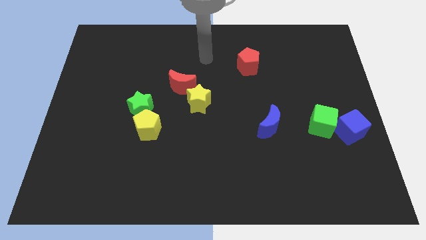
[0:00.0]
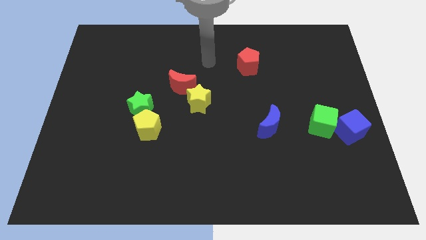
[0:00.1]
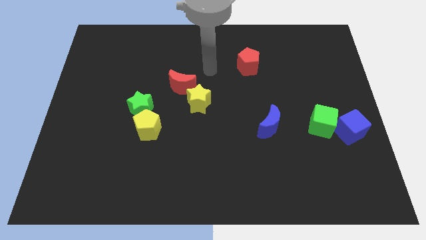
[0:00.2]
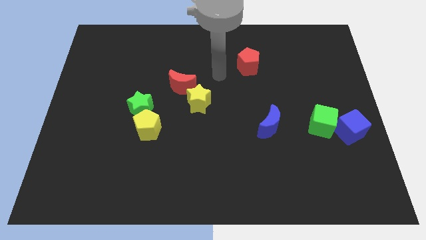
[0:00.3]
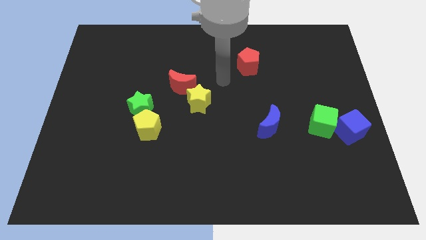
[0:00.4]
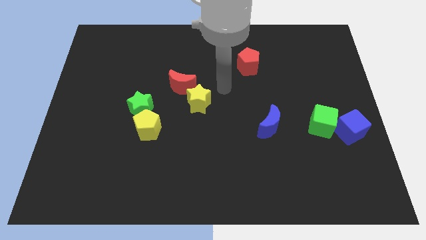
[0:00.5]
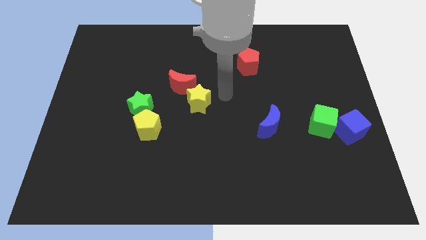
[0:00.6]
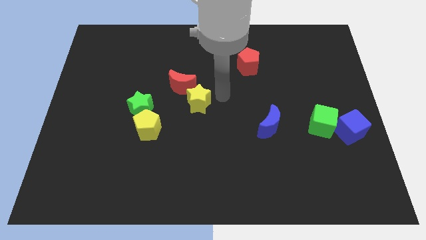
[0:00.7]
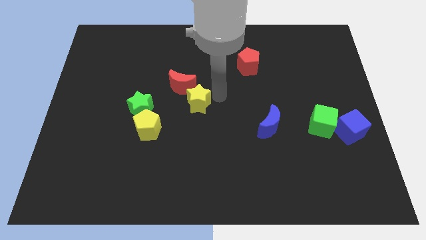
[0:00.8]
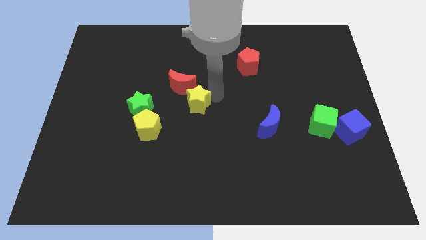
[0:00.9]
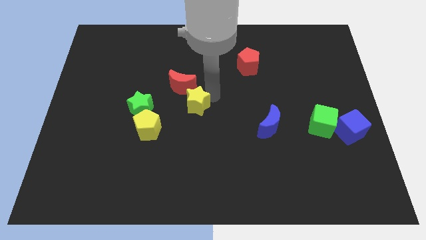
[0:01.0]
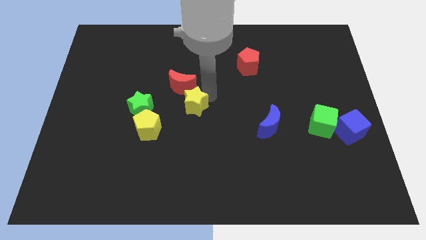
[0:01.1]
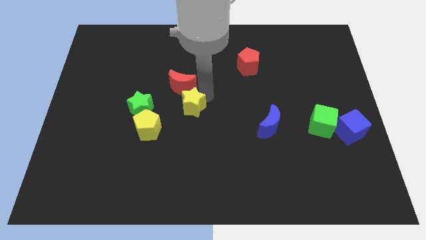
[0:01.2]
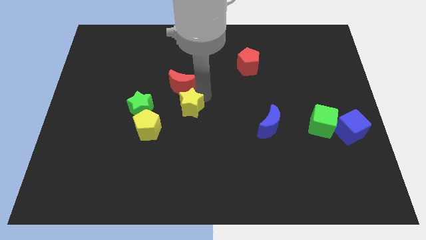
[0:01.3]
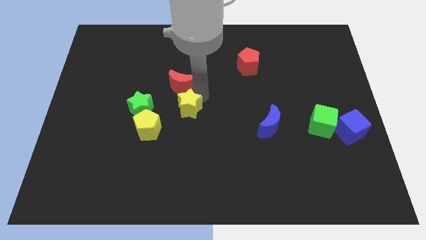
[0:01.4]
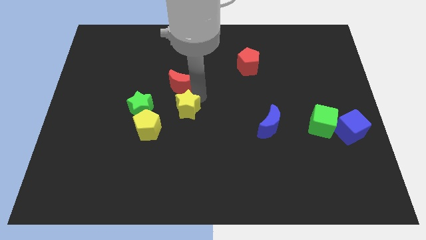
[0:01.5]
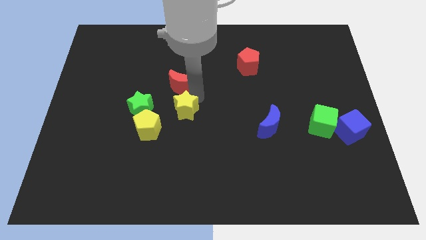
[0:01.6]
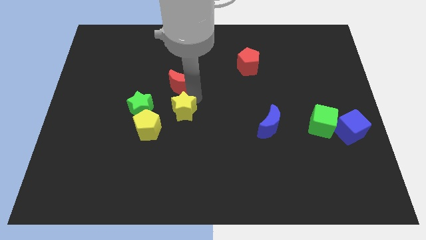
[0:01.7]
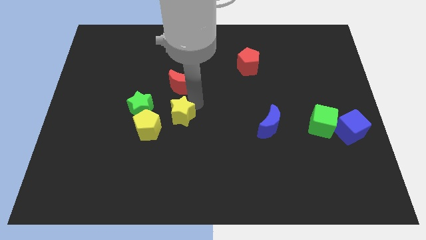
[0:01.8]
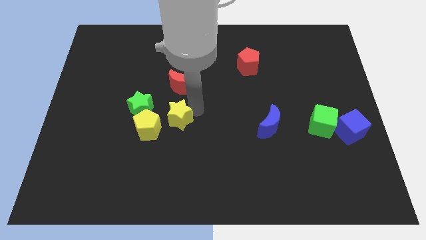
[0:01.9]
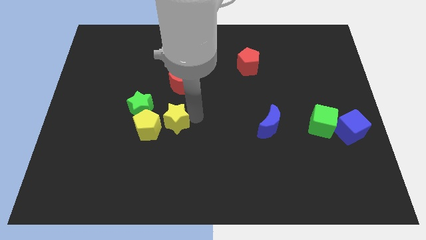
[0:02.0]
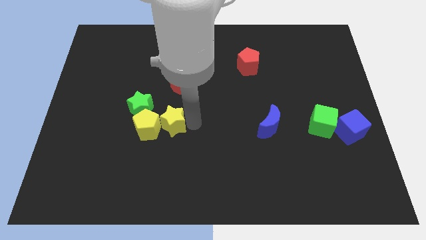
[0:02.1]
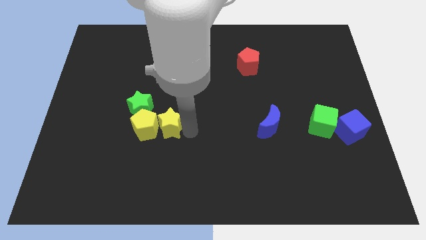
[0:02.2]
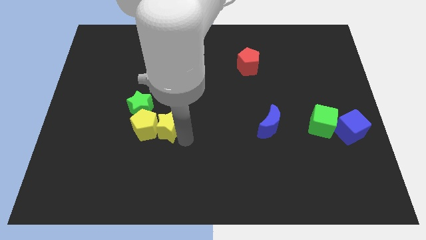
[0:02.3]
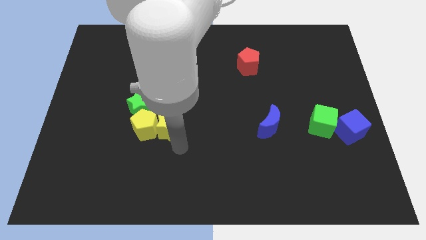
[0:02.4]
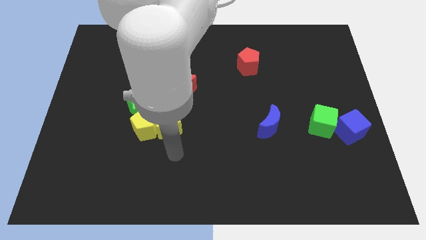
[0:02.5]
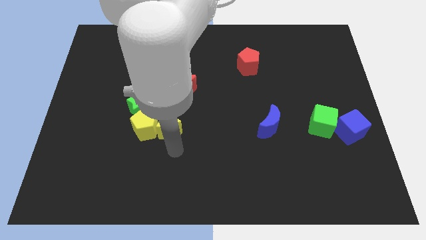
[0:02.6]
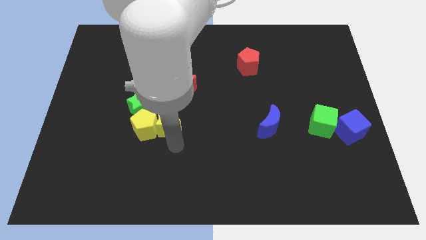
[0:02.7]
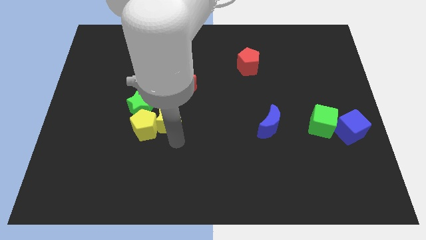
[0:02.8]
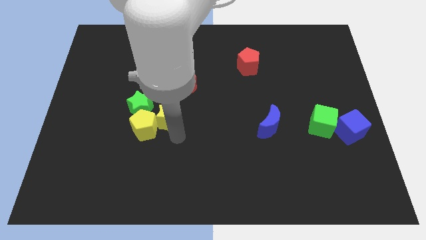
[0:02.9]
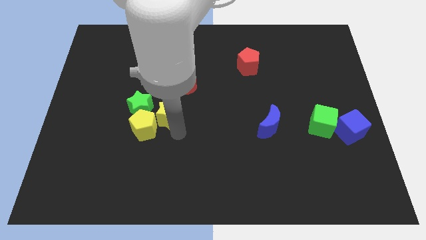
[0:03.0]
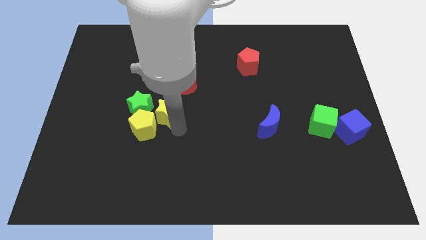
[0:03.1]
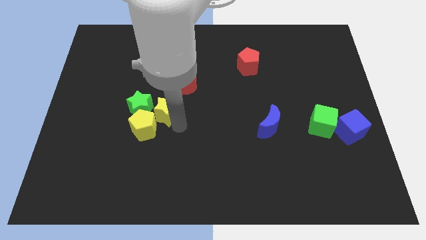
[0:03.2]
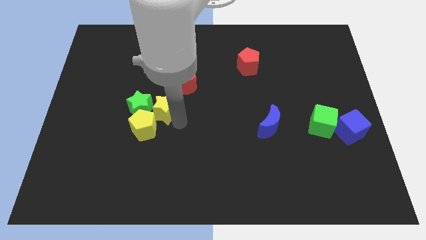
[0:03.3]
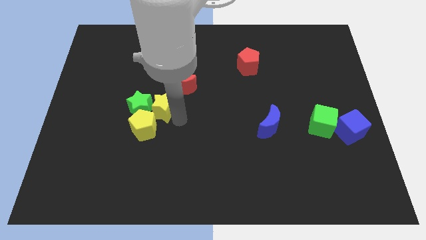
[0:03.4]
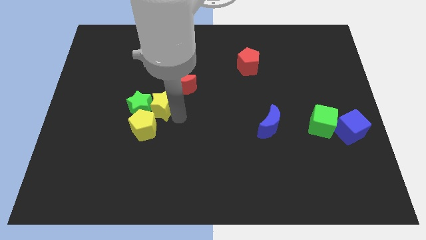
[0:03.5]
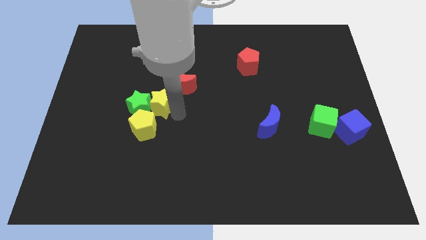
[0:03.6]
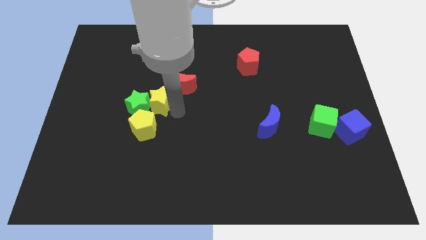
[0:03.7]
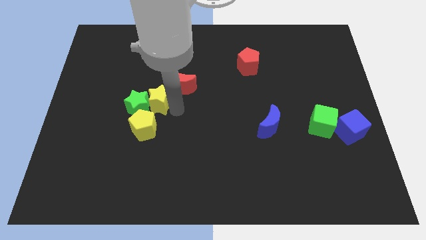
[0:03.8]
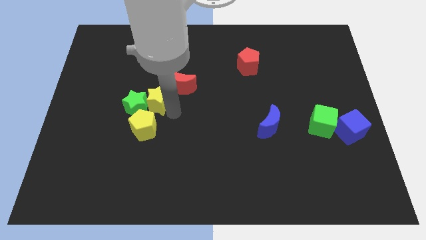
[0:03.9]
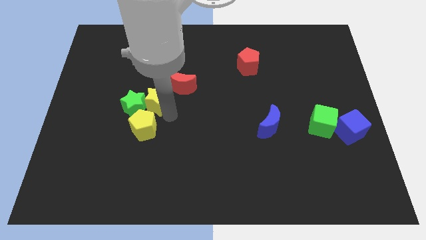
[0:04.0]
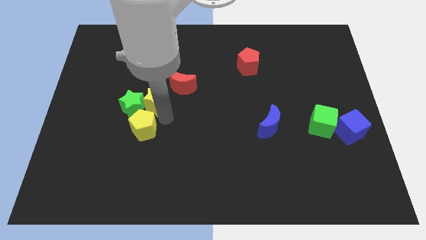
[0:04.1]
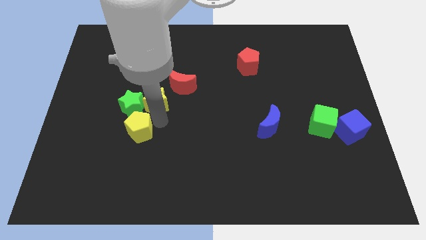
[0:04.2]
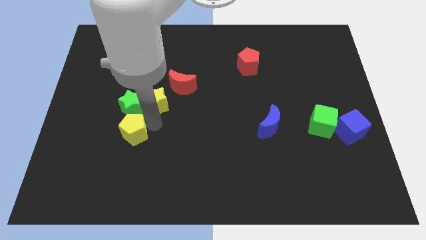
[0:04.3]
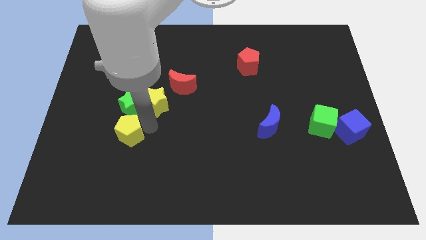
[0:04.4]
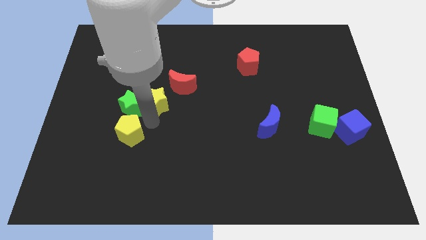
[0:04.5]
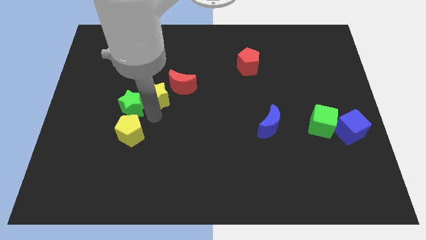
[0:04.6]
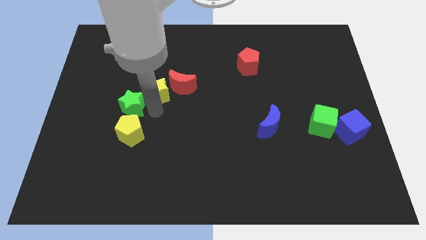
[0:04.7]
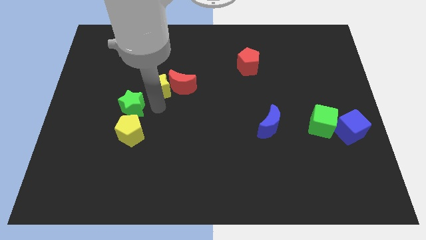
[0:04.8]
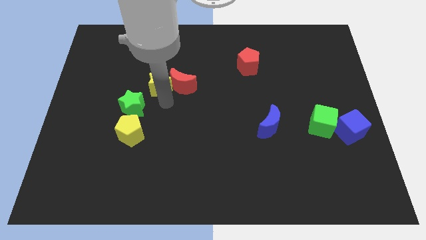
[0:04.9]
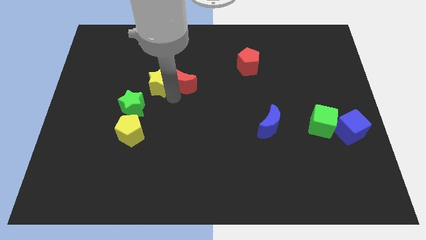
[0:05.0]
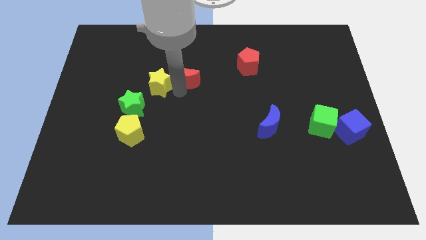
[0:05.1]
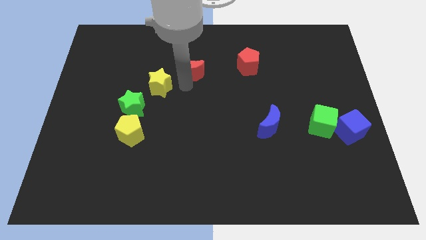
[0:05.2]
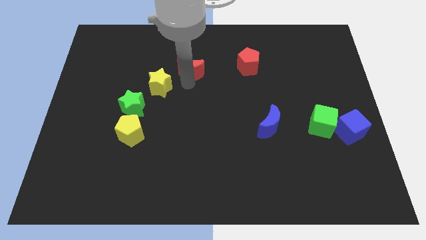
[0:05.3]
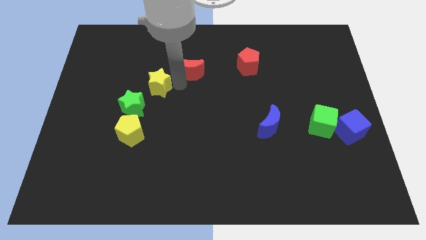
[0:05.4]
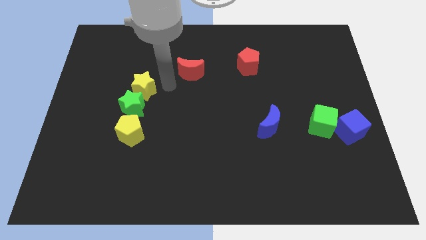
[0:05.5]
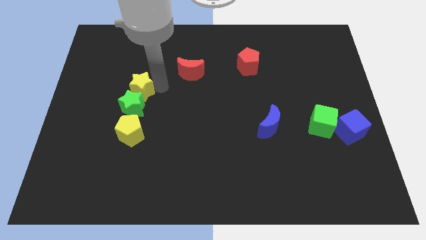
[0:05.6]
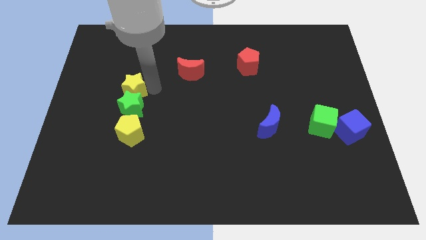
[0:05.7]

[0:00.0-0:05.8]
slide the yellow star to the top left of the green star

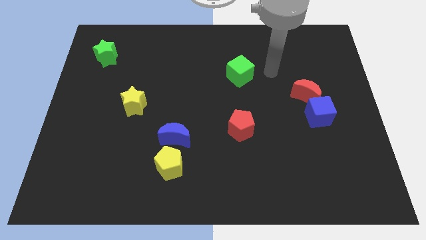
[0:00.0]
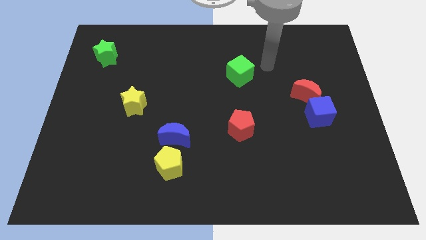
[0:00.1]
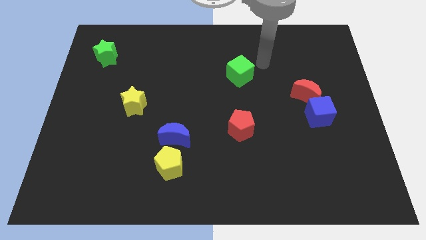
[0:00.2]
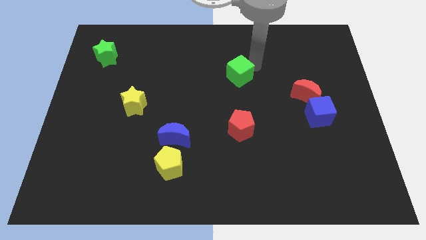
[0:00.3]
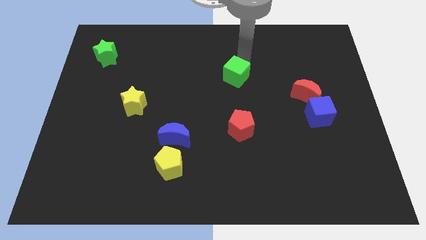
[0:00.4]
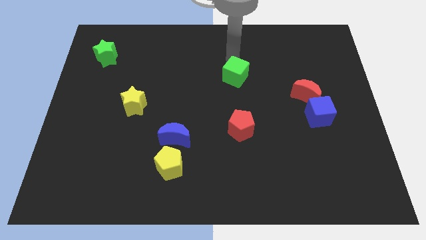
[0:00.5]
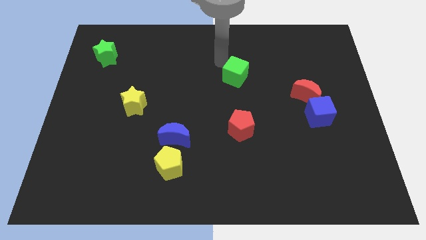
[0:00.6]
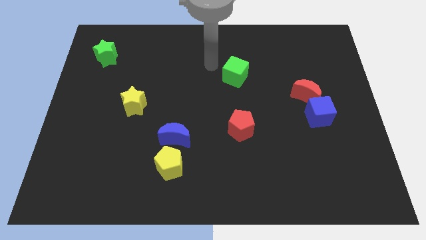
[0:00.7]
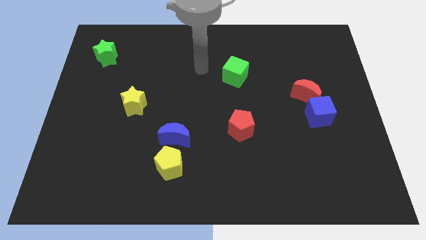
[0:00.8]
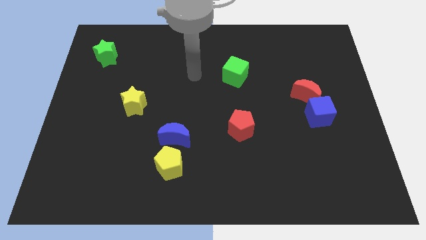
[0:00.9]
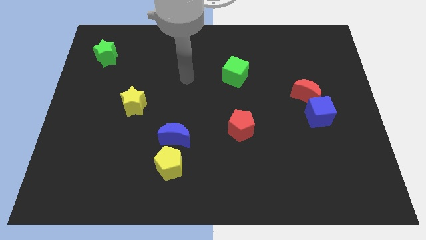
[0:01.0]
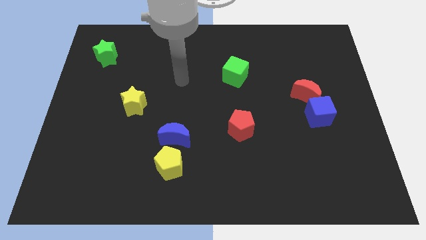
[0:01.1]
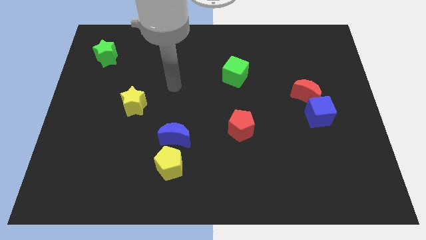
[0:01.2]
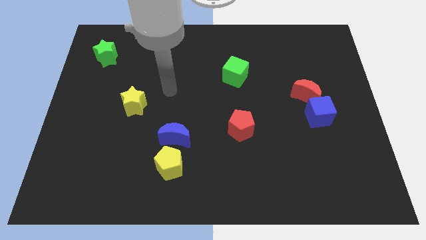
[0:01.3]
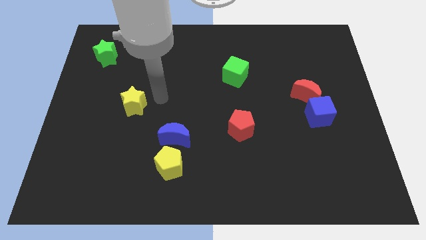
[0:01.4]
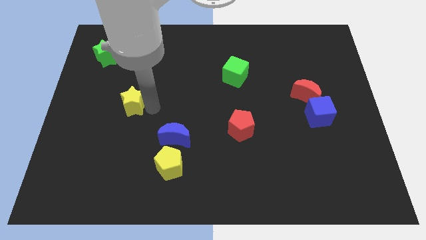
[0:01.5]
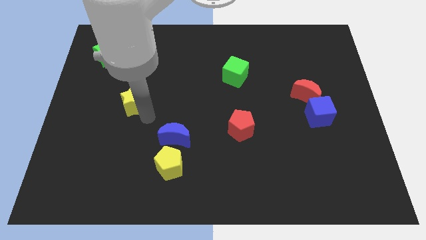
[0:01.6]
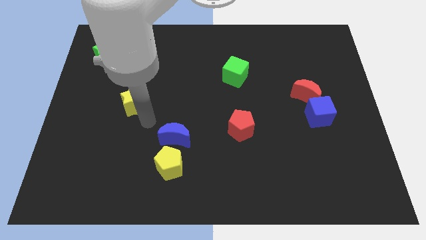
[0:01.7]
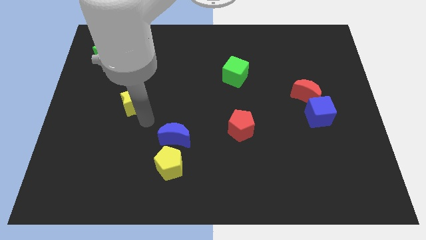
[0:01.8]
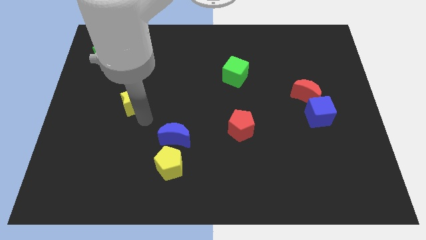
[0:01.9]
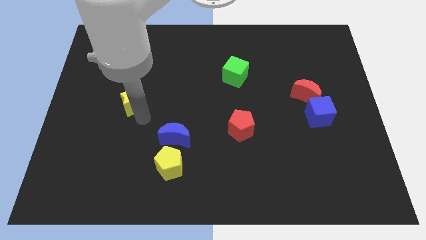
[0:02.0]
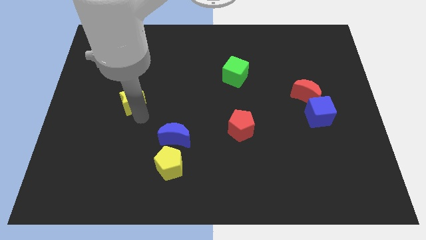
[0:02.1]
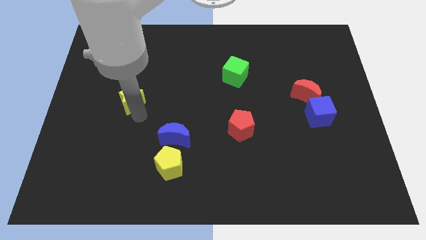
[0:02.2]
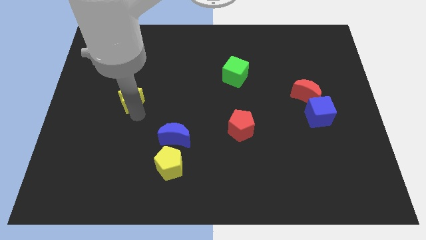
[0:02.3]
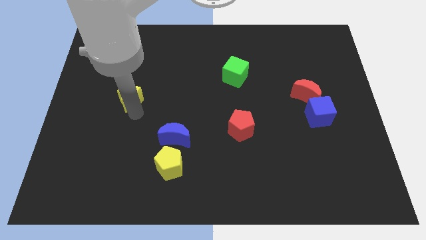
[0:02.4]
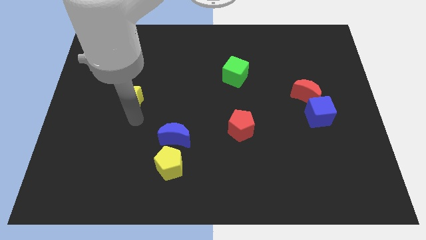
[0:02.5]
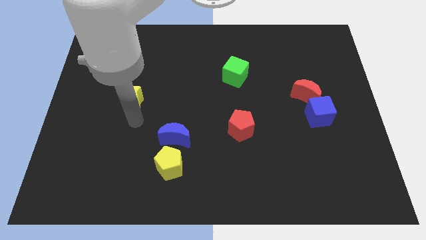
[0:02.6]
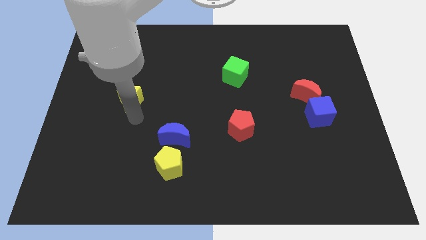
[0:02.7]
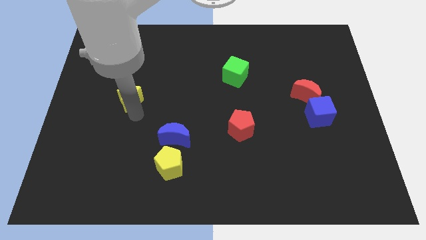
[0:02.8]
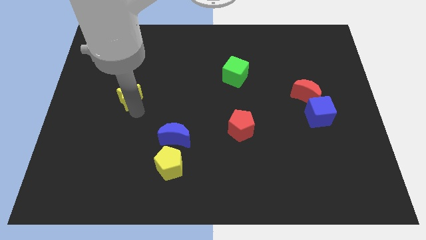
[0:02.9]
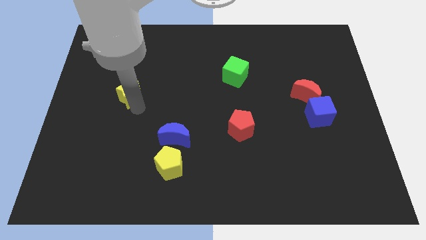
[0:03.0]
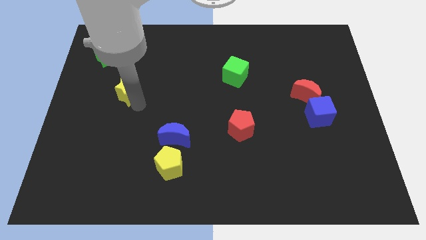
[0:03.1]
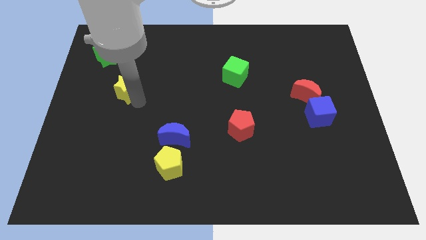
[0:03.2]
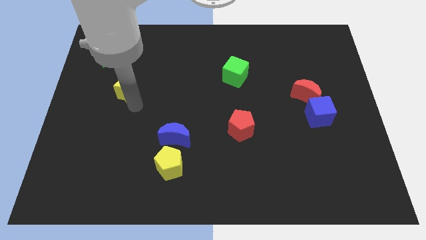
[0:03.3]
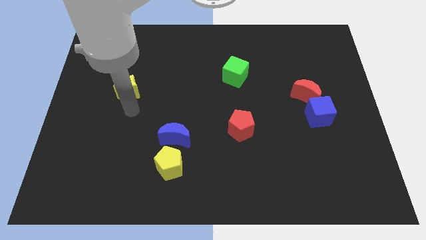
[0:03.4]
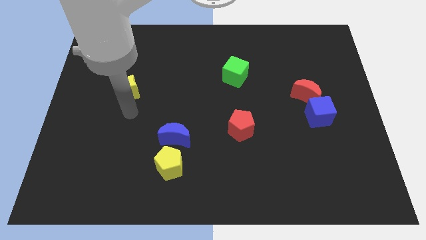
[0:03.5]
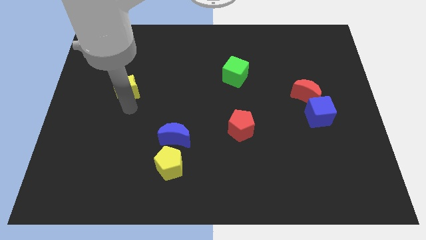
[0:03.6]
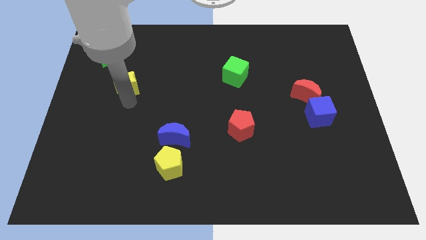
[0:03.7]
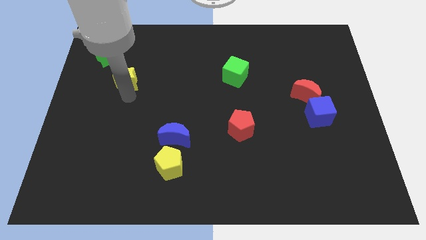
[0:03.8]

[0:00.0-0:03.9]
push the yellow star to the bottom right side of the green star
